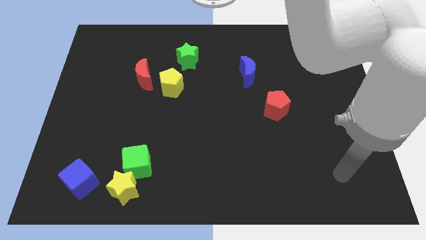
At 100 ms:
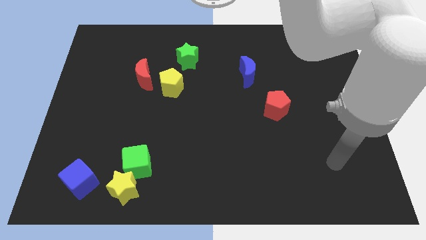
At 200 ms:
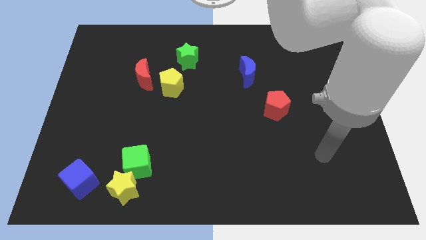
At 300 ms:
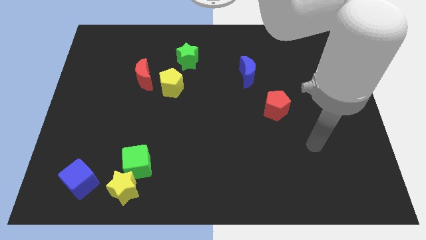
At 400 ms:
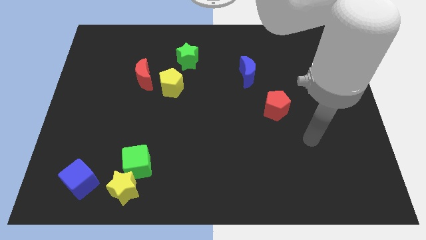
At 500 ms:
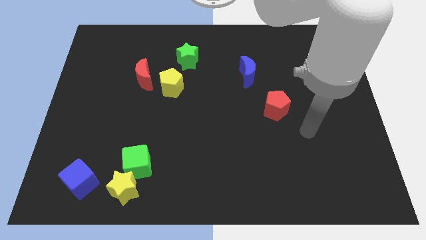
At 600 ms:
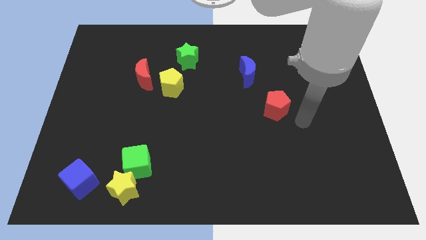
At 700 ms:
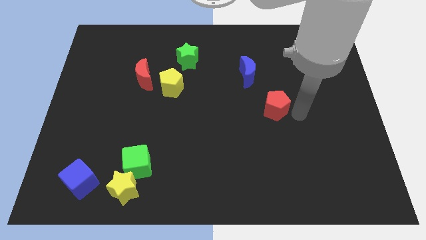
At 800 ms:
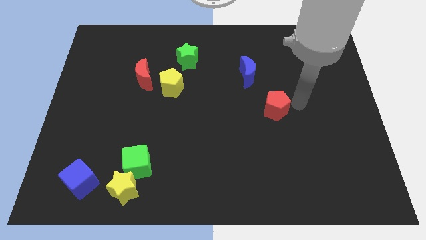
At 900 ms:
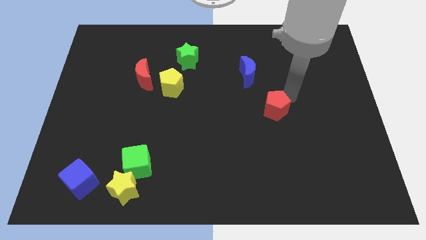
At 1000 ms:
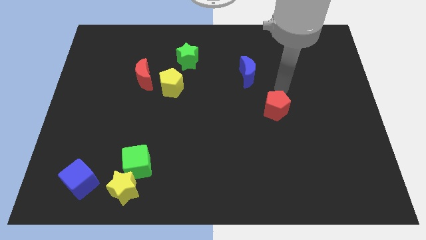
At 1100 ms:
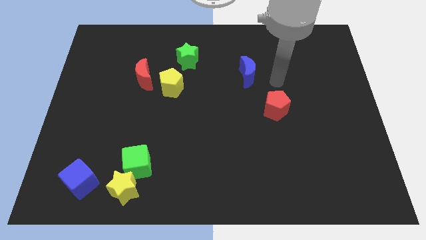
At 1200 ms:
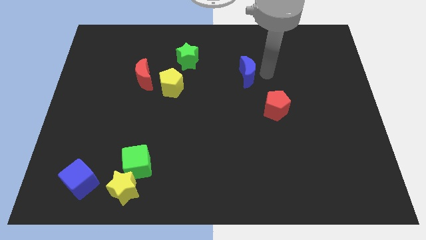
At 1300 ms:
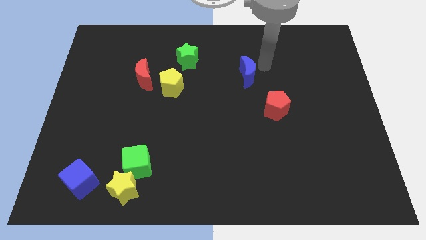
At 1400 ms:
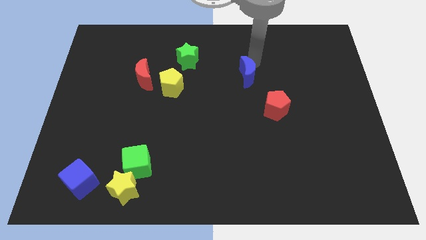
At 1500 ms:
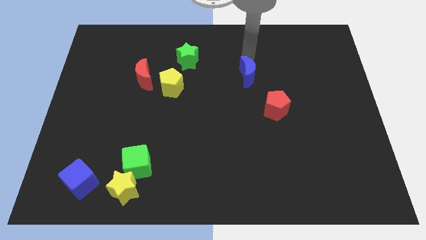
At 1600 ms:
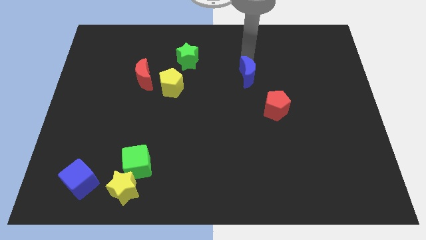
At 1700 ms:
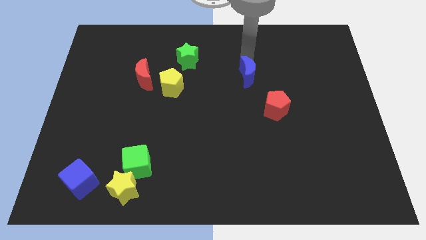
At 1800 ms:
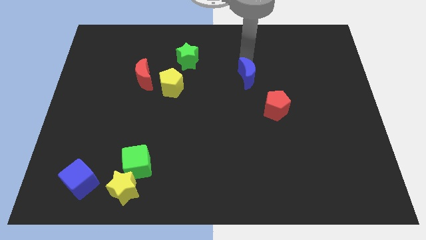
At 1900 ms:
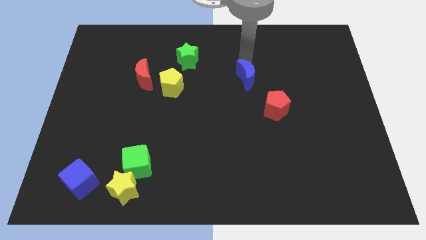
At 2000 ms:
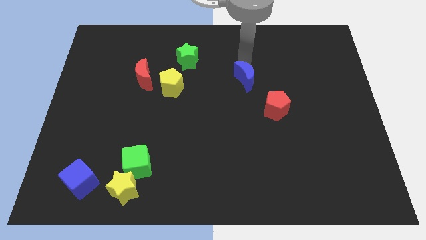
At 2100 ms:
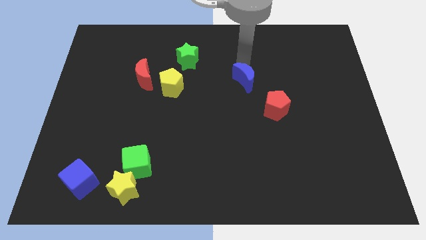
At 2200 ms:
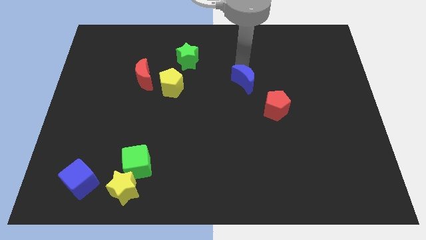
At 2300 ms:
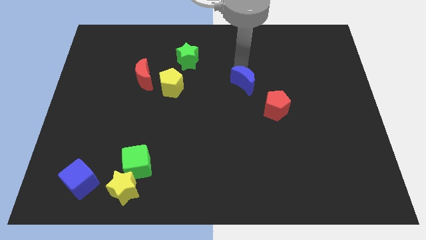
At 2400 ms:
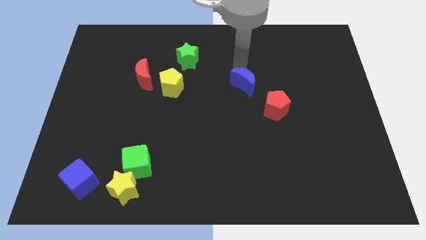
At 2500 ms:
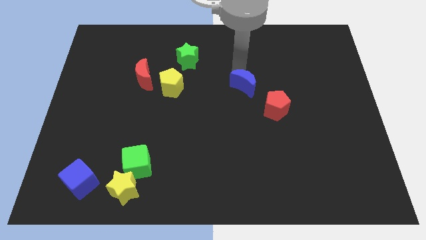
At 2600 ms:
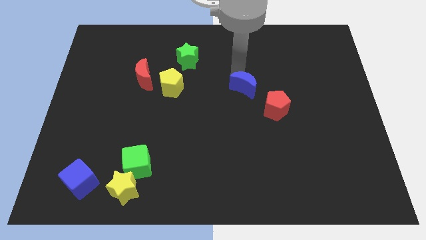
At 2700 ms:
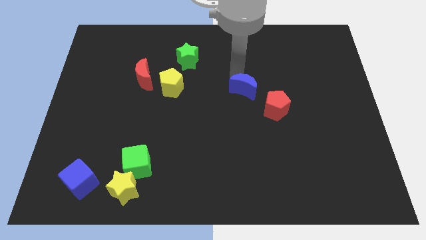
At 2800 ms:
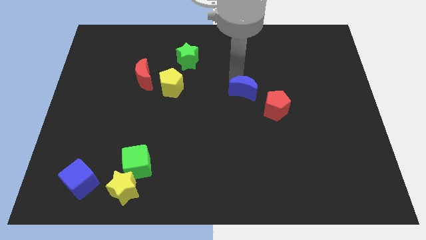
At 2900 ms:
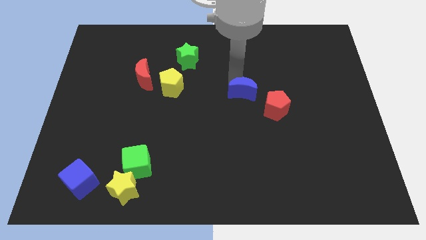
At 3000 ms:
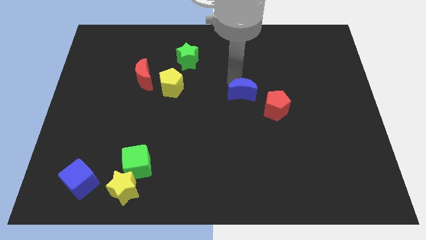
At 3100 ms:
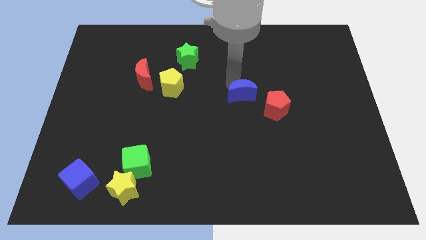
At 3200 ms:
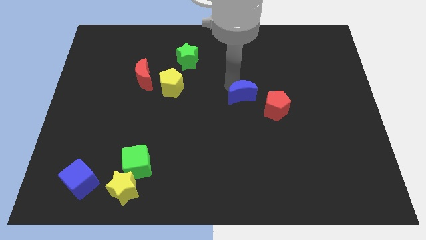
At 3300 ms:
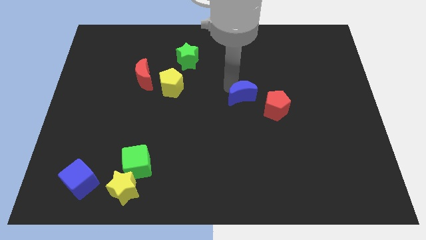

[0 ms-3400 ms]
slide the blue moon down a little bit

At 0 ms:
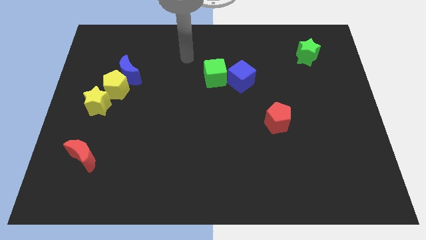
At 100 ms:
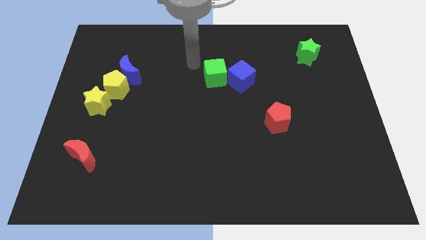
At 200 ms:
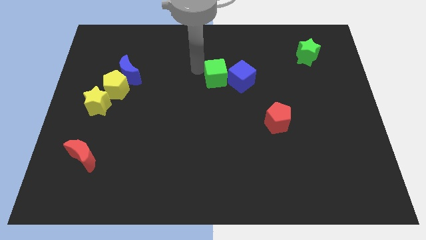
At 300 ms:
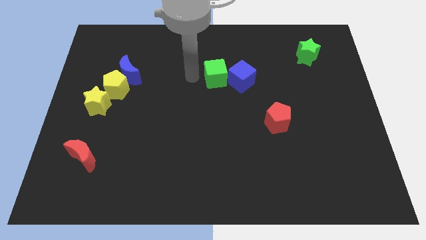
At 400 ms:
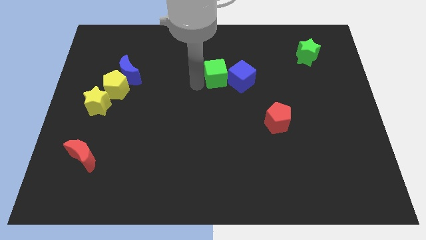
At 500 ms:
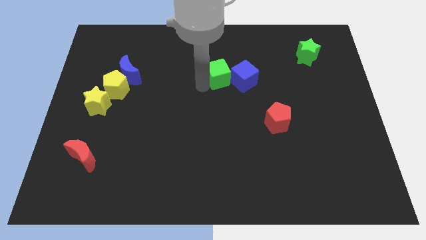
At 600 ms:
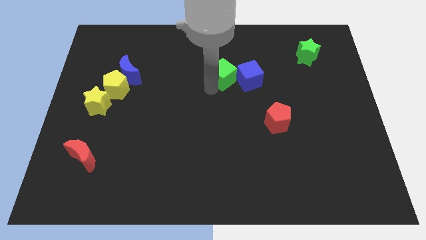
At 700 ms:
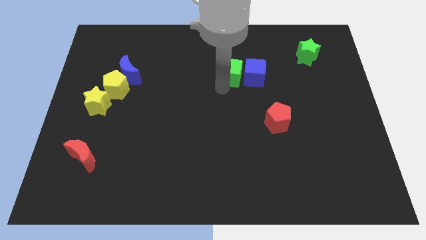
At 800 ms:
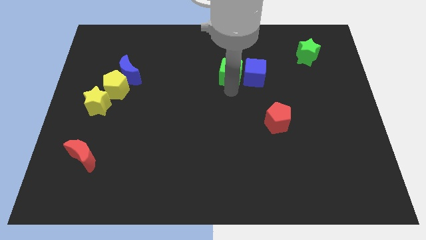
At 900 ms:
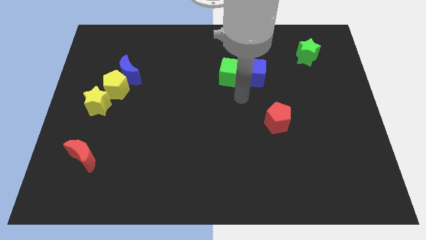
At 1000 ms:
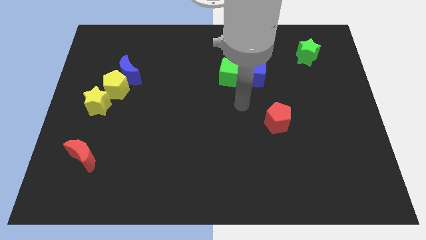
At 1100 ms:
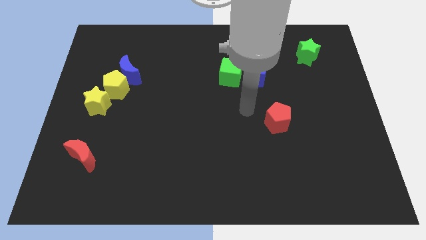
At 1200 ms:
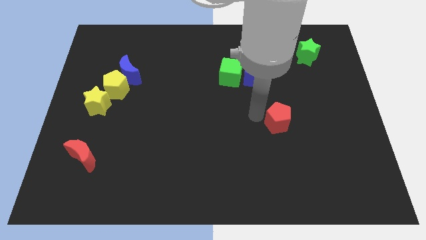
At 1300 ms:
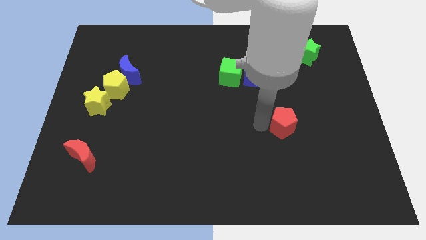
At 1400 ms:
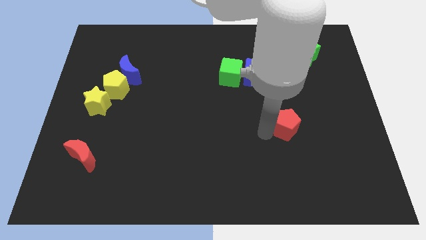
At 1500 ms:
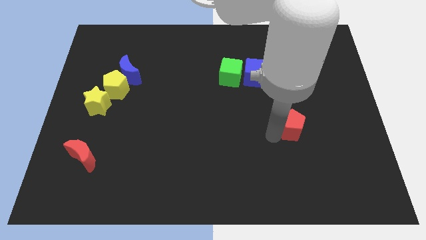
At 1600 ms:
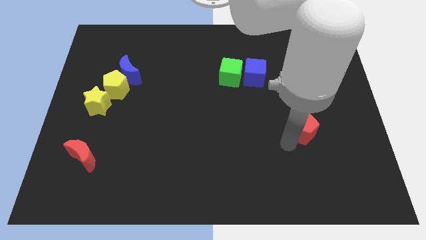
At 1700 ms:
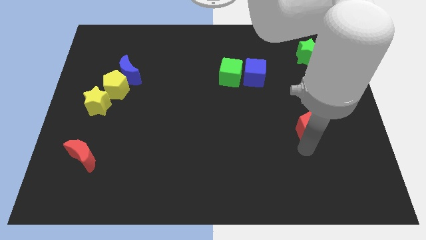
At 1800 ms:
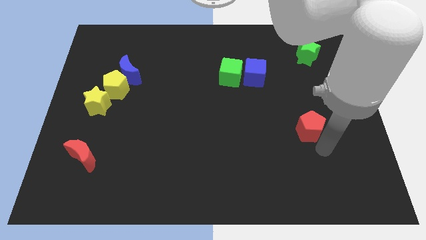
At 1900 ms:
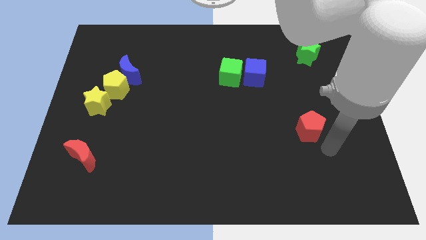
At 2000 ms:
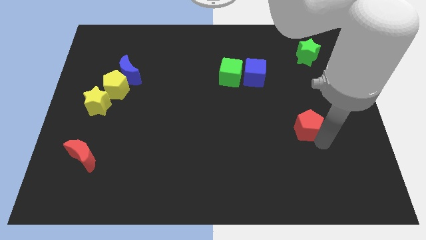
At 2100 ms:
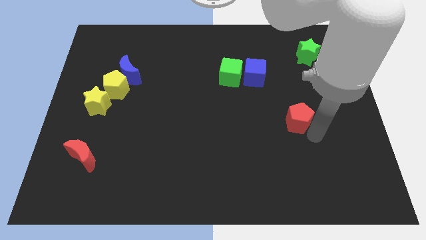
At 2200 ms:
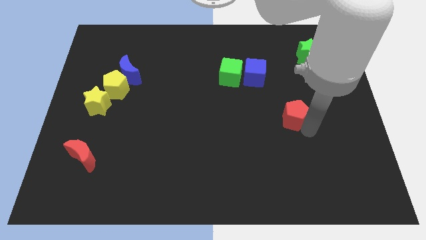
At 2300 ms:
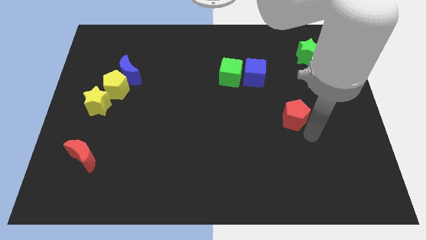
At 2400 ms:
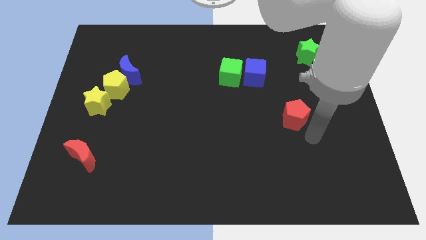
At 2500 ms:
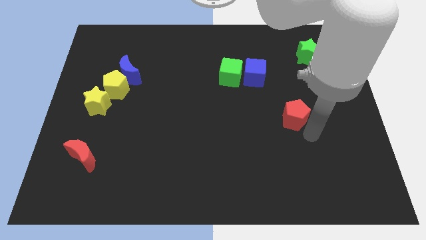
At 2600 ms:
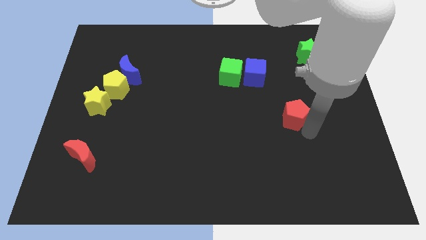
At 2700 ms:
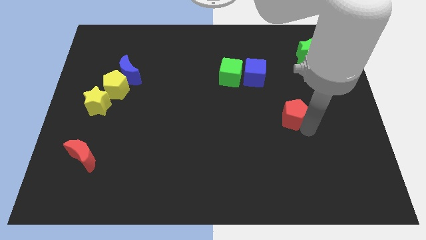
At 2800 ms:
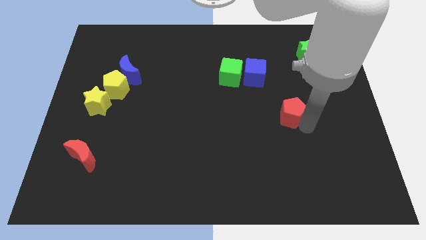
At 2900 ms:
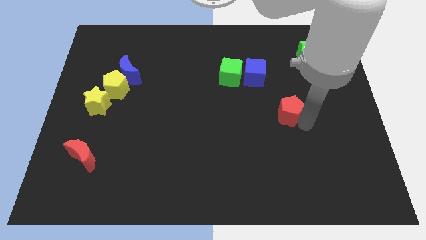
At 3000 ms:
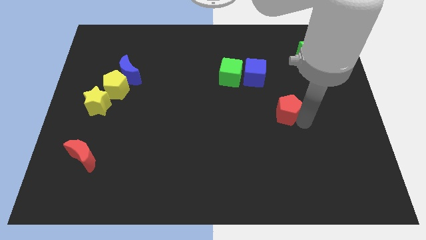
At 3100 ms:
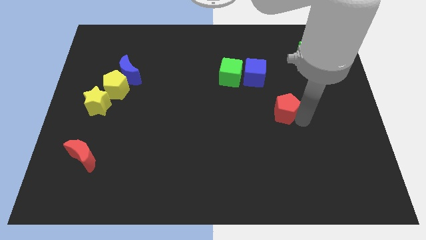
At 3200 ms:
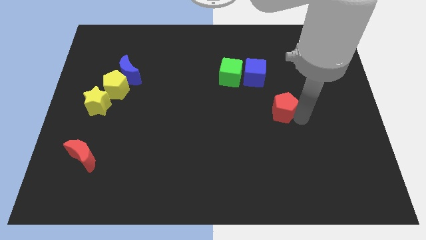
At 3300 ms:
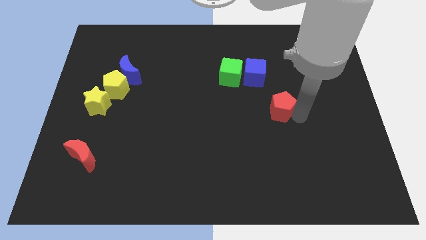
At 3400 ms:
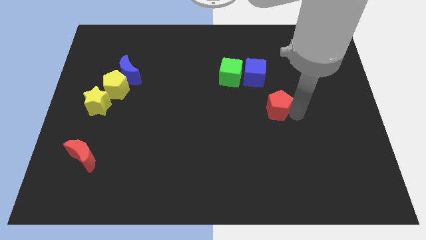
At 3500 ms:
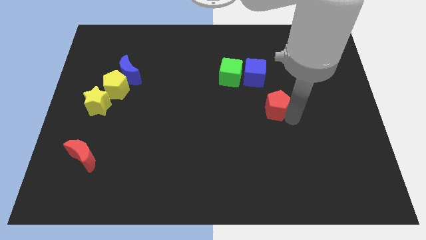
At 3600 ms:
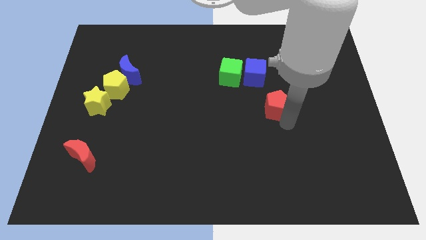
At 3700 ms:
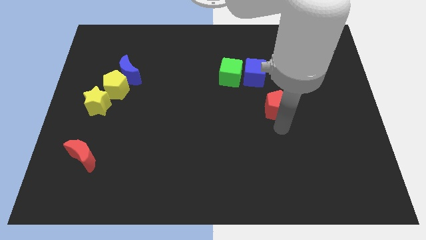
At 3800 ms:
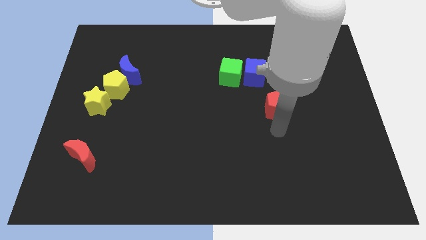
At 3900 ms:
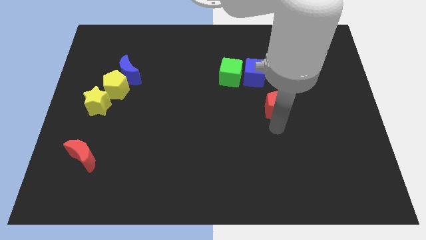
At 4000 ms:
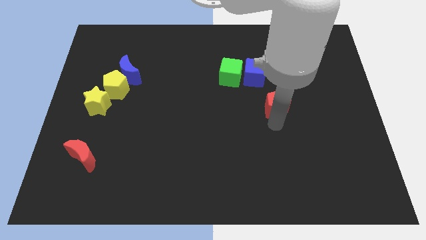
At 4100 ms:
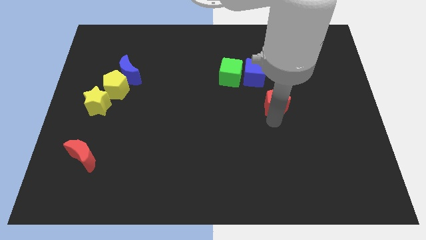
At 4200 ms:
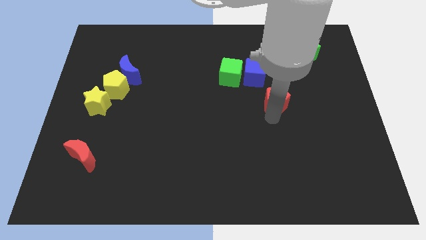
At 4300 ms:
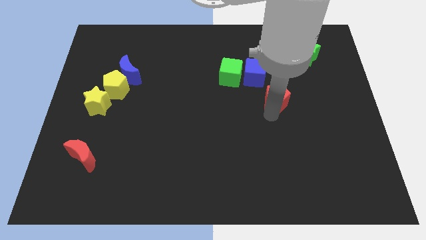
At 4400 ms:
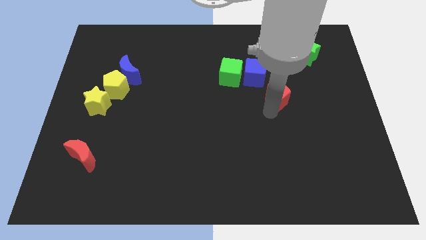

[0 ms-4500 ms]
slide the red pentagon a bit upwards

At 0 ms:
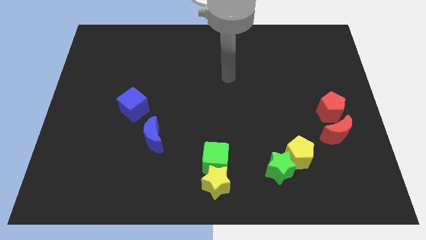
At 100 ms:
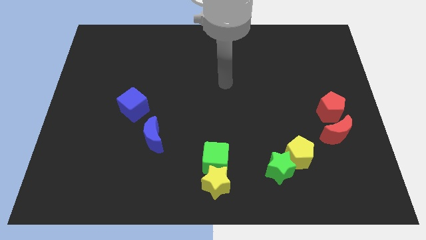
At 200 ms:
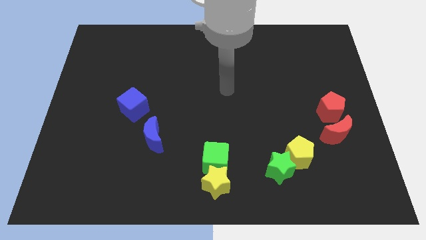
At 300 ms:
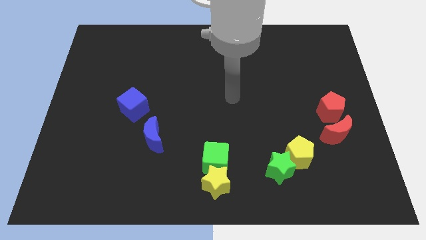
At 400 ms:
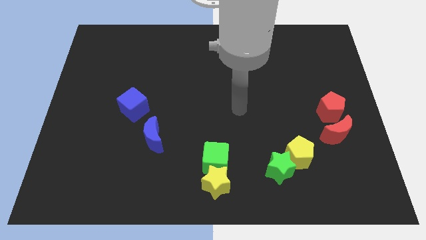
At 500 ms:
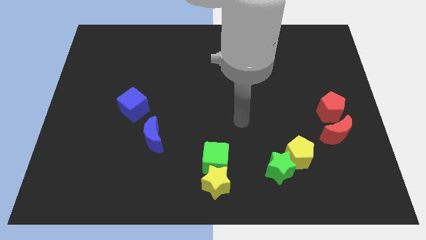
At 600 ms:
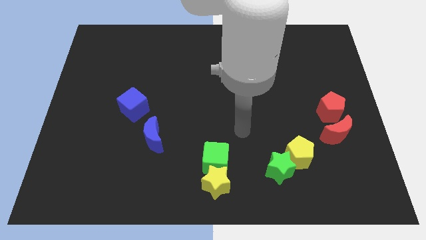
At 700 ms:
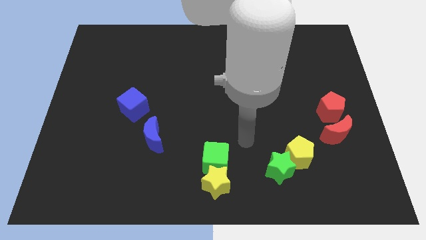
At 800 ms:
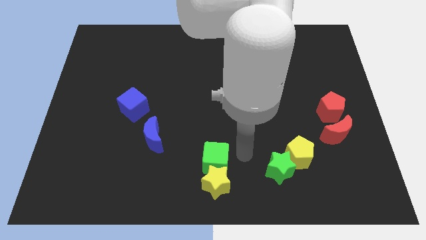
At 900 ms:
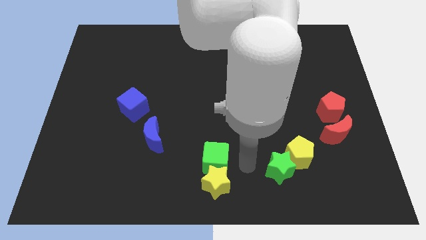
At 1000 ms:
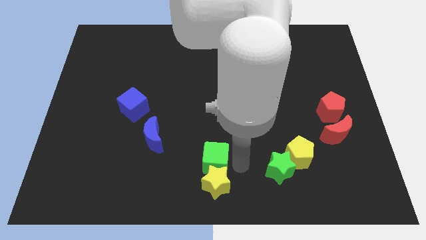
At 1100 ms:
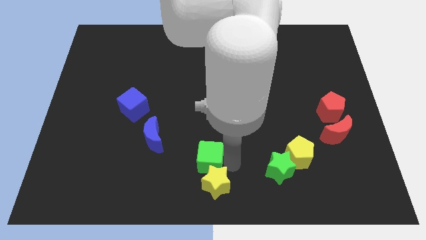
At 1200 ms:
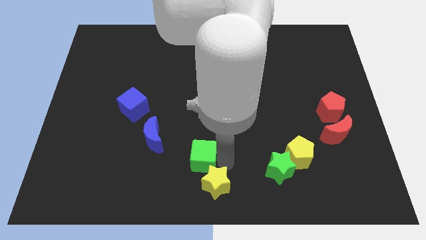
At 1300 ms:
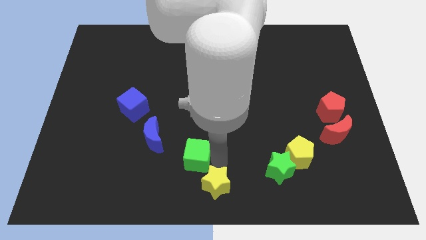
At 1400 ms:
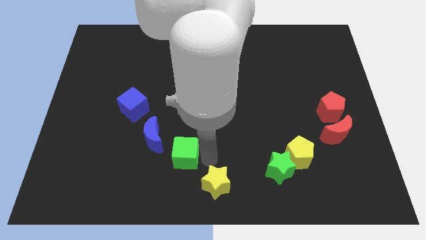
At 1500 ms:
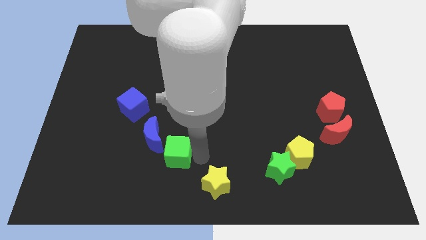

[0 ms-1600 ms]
slide the green cube left slightly
